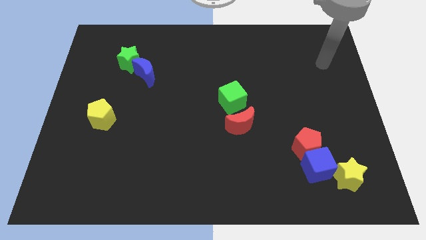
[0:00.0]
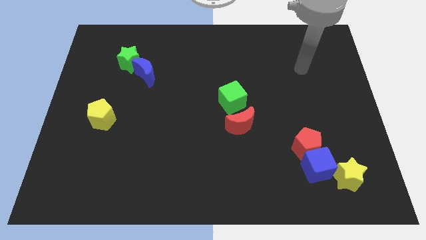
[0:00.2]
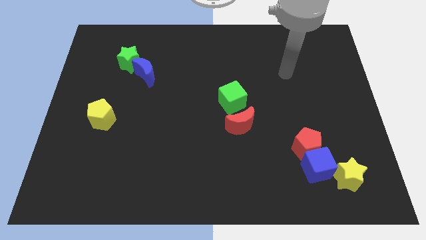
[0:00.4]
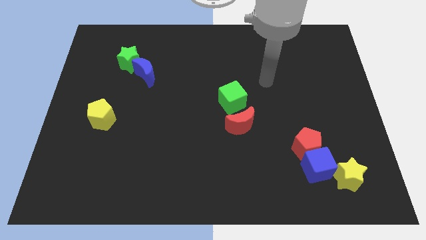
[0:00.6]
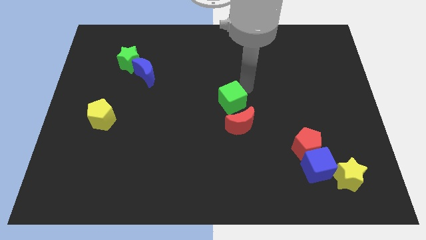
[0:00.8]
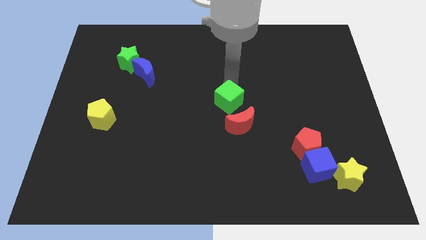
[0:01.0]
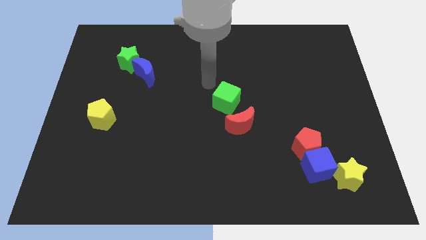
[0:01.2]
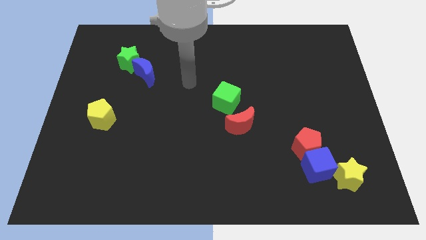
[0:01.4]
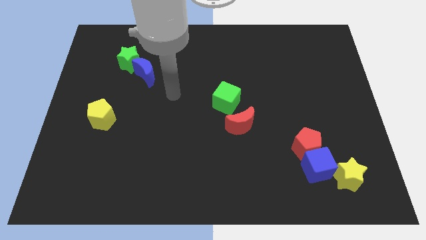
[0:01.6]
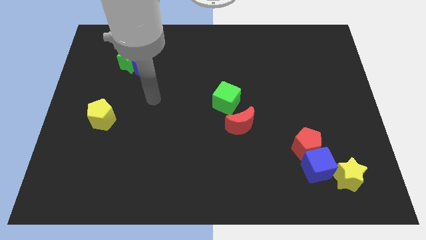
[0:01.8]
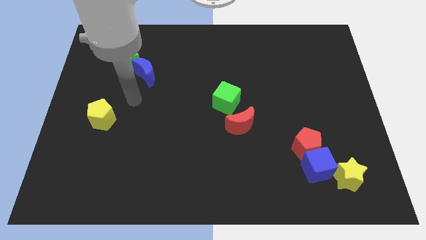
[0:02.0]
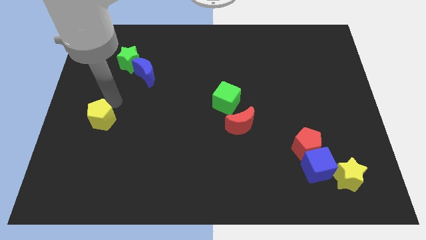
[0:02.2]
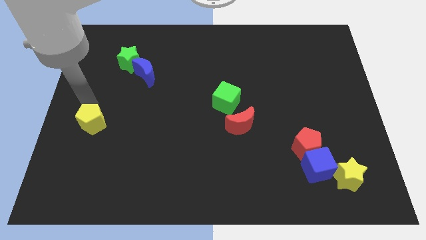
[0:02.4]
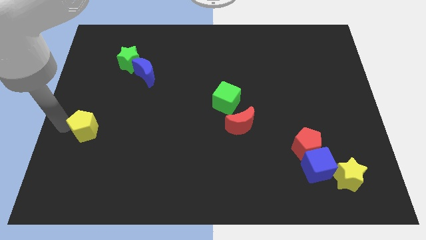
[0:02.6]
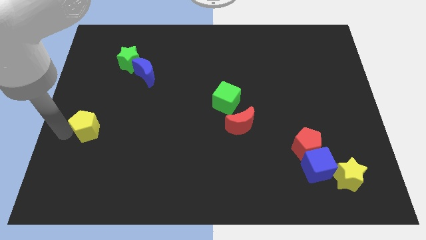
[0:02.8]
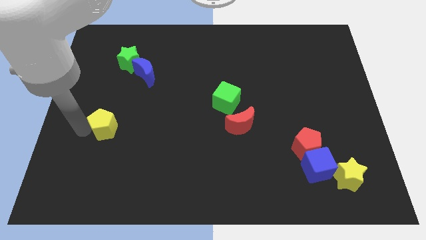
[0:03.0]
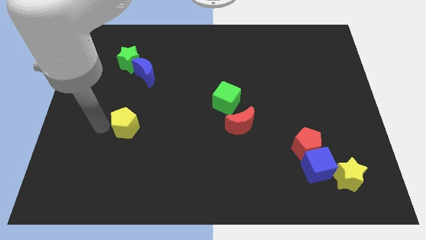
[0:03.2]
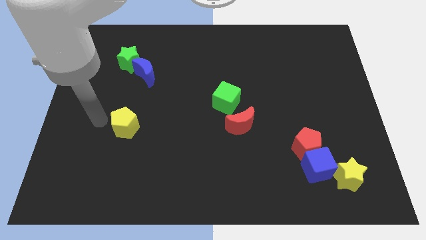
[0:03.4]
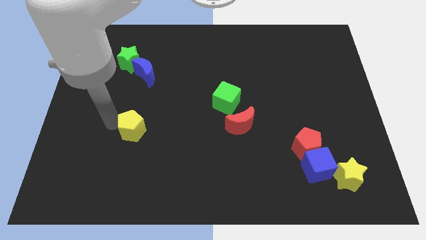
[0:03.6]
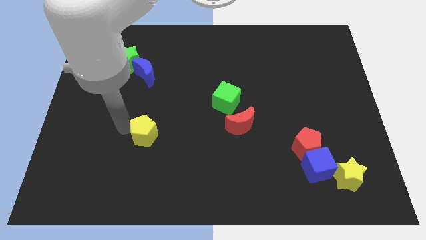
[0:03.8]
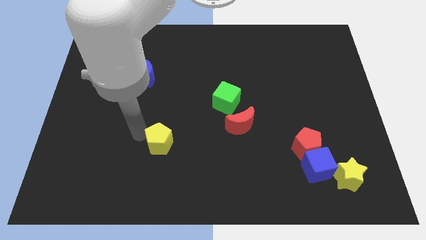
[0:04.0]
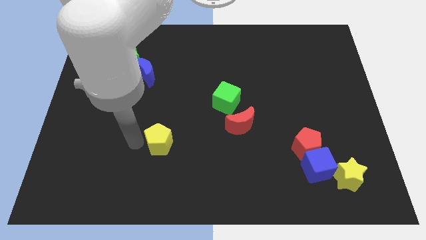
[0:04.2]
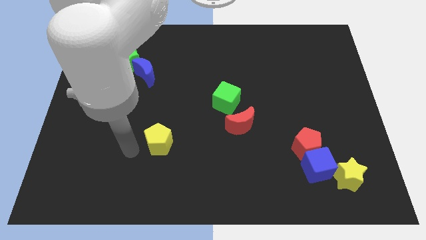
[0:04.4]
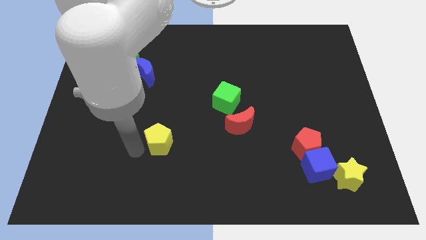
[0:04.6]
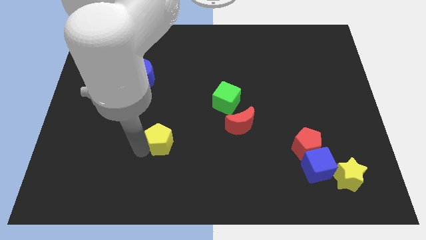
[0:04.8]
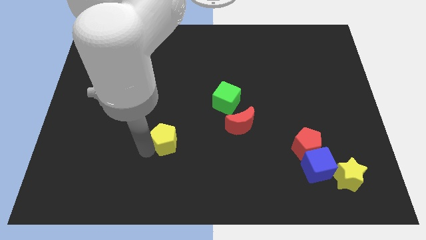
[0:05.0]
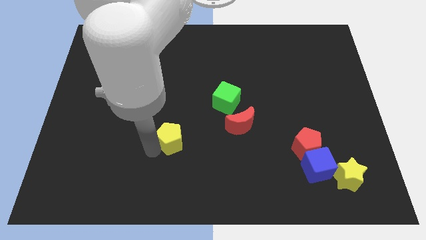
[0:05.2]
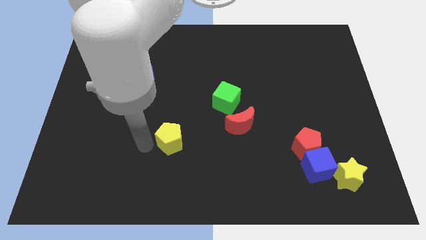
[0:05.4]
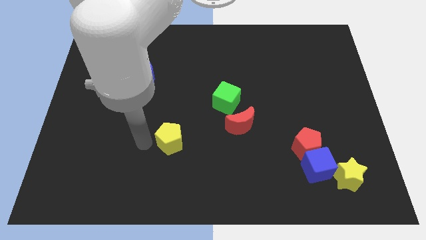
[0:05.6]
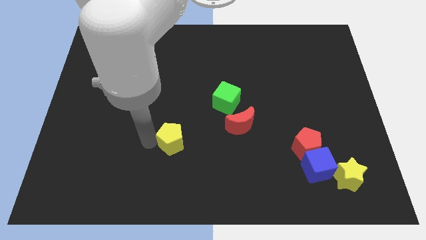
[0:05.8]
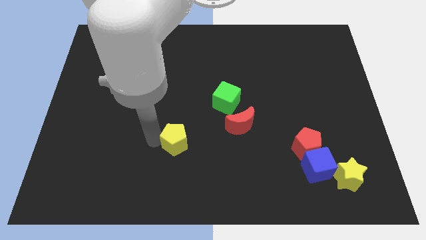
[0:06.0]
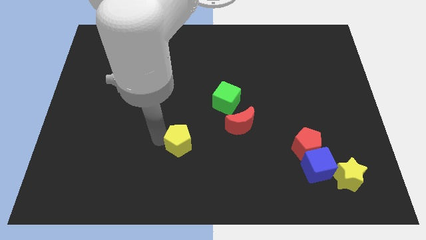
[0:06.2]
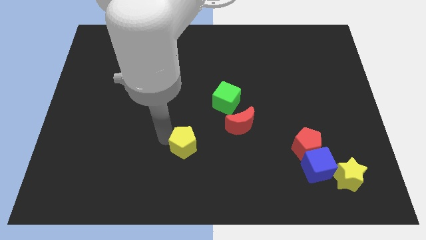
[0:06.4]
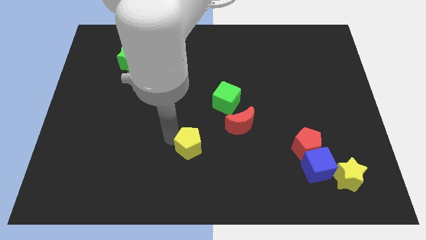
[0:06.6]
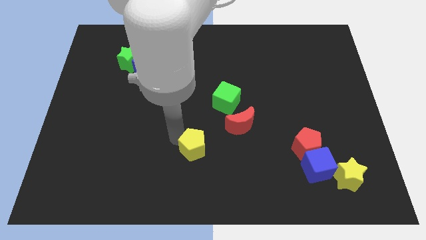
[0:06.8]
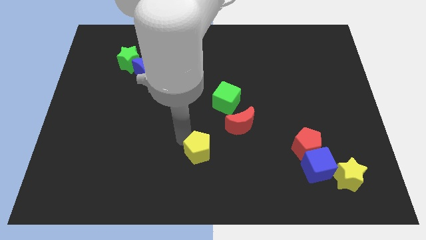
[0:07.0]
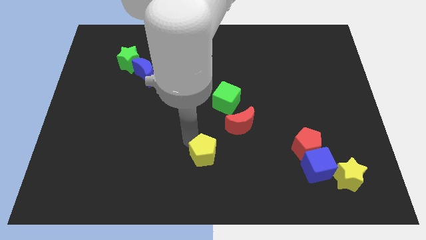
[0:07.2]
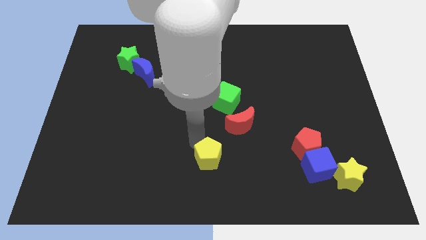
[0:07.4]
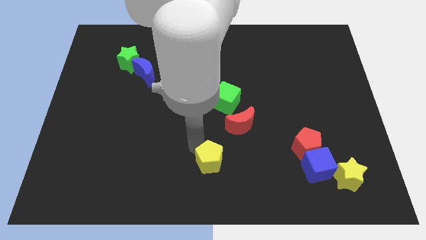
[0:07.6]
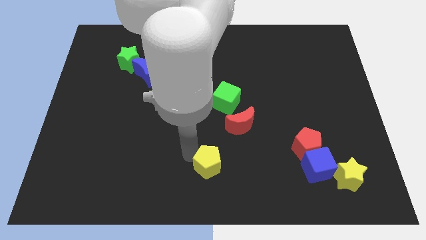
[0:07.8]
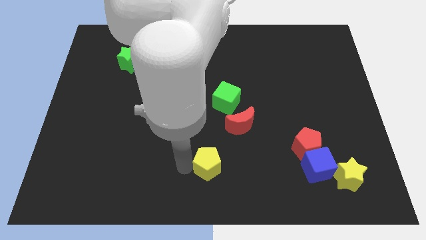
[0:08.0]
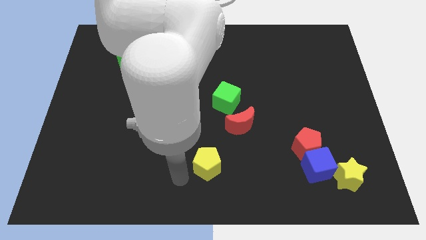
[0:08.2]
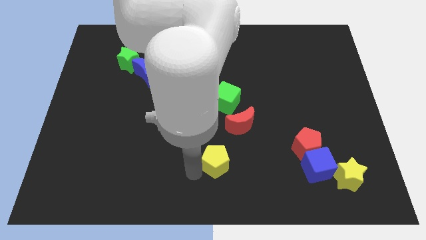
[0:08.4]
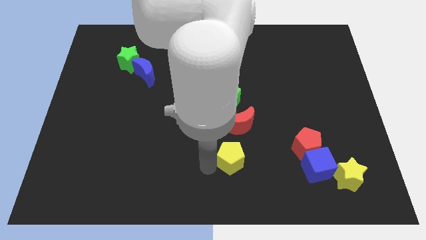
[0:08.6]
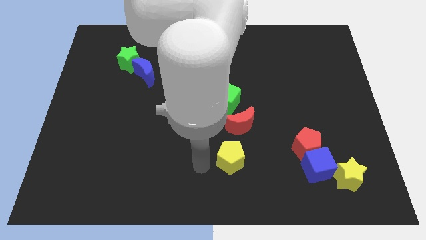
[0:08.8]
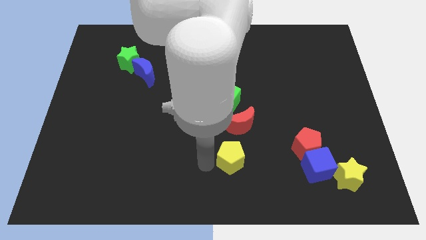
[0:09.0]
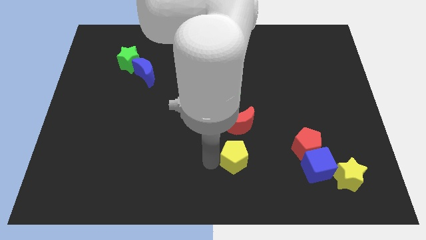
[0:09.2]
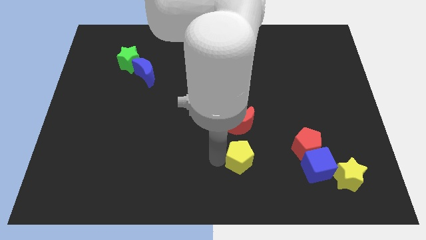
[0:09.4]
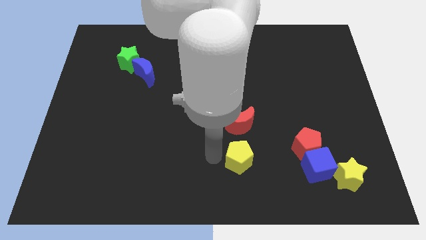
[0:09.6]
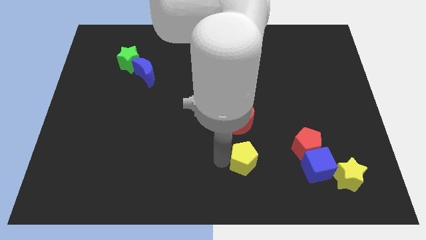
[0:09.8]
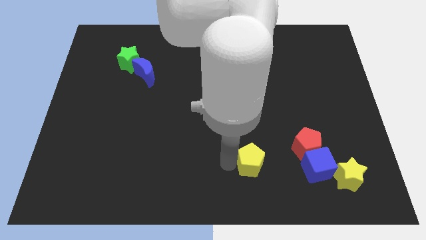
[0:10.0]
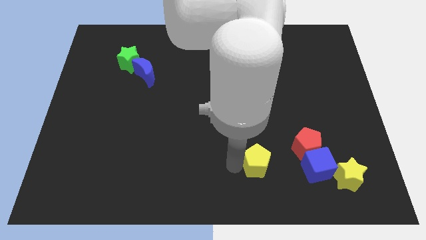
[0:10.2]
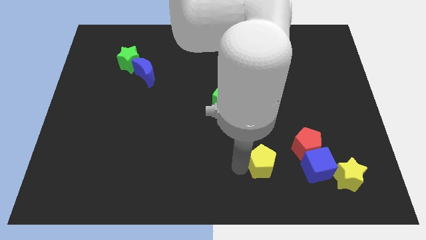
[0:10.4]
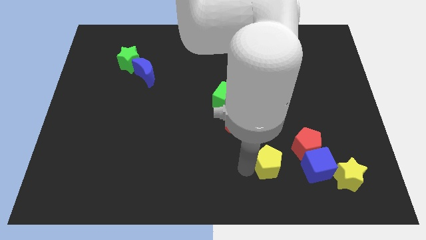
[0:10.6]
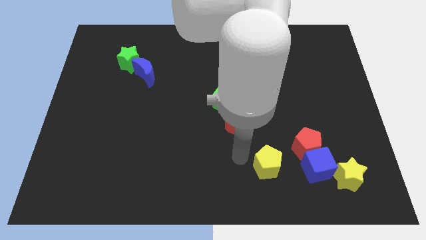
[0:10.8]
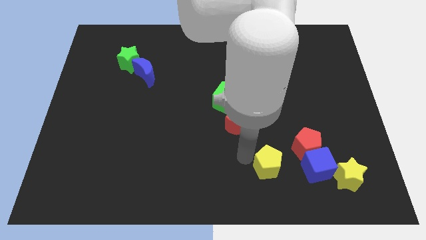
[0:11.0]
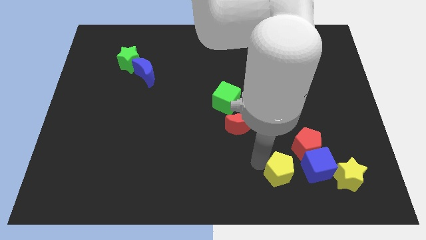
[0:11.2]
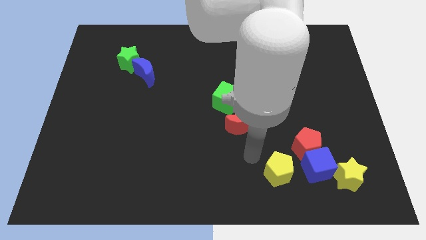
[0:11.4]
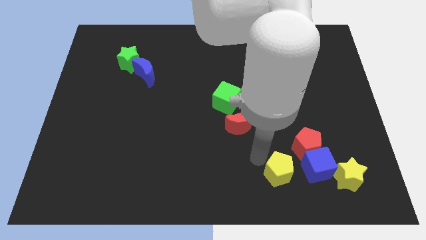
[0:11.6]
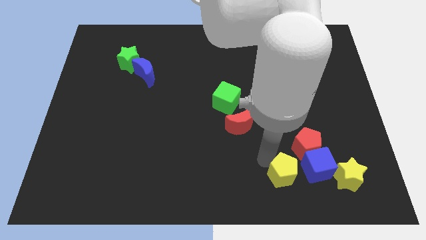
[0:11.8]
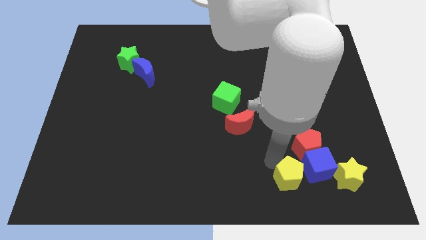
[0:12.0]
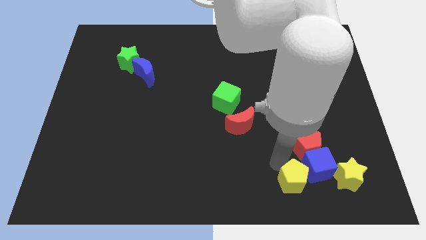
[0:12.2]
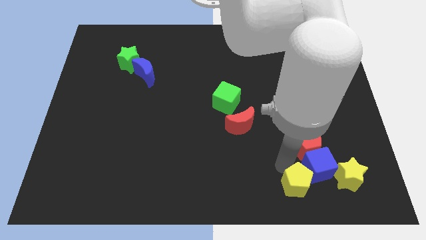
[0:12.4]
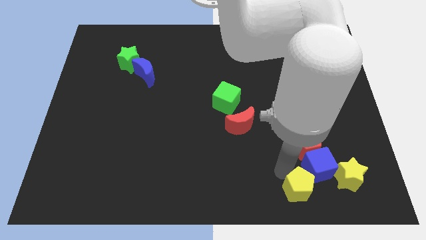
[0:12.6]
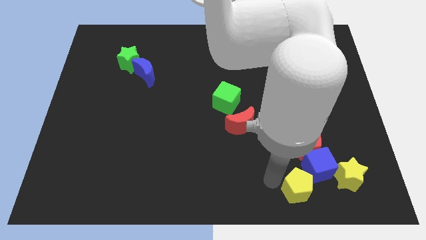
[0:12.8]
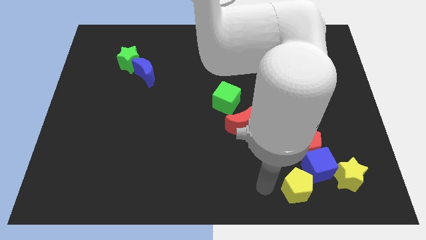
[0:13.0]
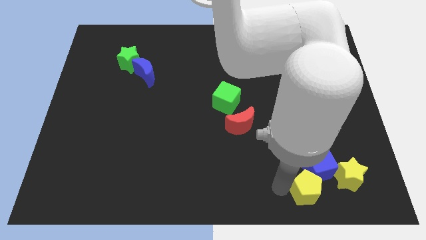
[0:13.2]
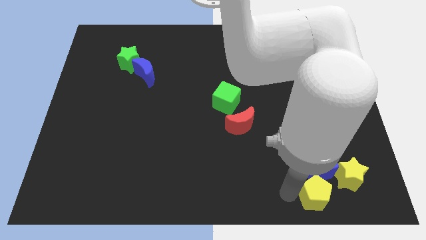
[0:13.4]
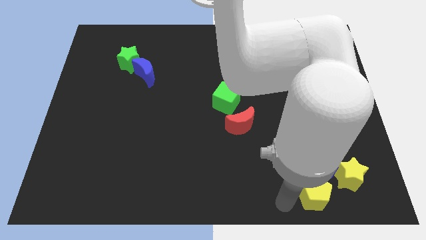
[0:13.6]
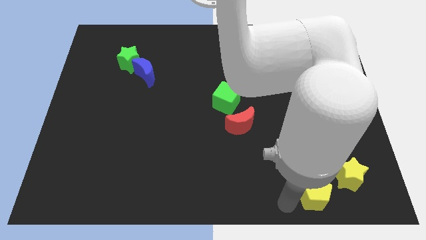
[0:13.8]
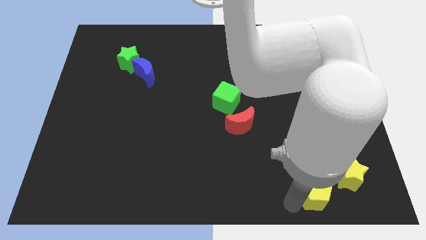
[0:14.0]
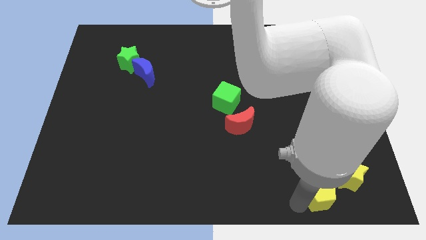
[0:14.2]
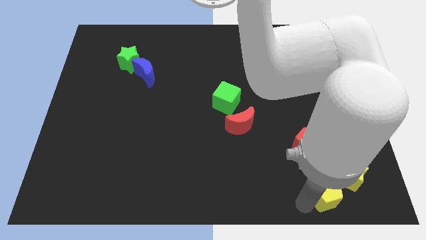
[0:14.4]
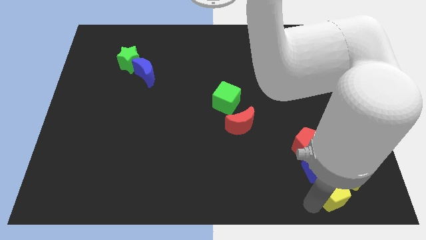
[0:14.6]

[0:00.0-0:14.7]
slide the yellow pentagon next to the yellow star

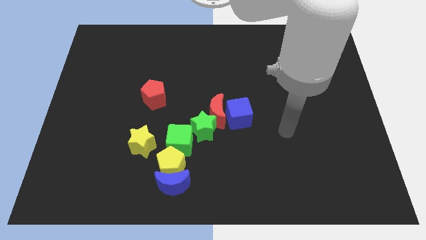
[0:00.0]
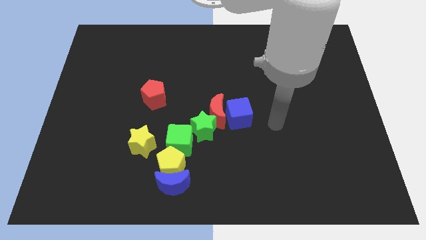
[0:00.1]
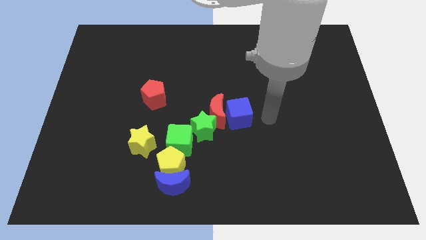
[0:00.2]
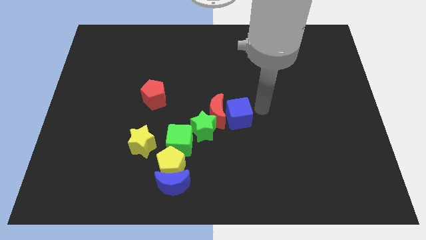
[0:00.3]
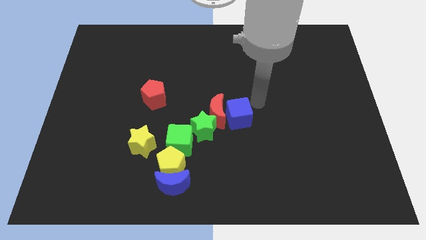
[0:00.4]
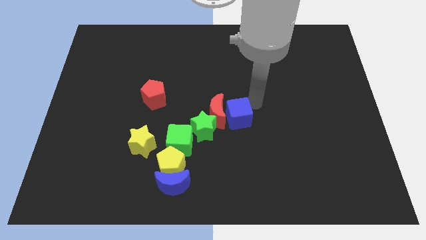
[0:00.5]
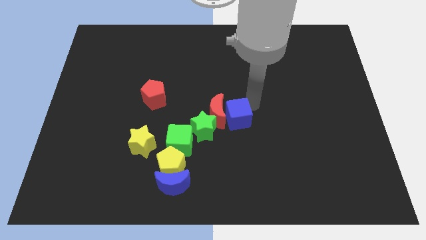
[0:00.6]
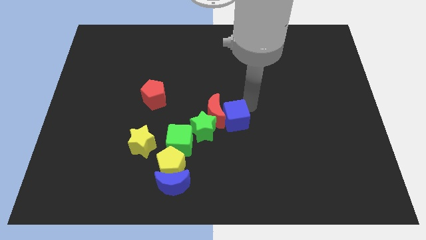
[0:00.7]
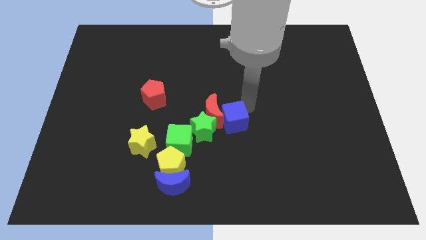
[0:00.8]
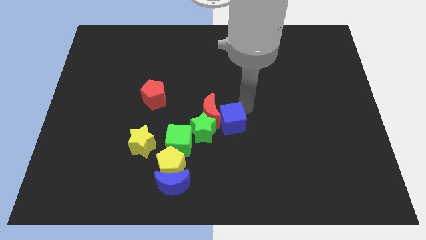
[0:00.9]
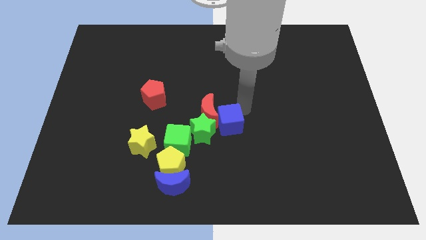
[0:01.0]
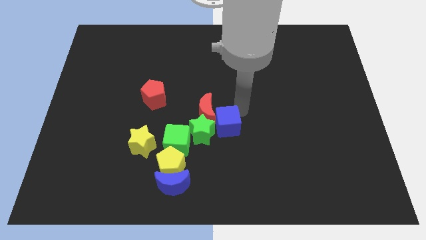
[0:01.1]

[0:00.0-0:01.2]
move the blue cube to the green star
